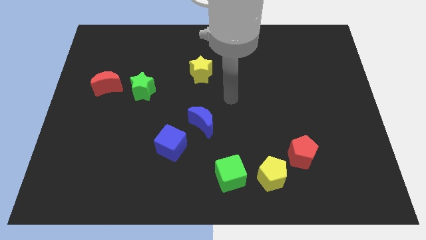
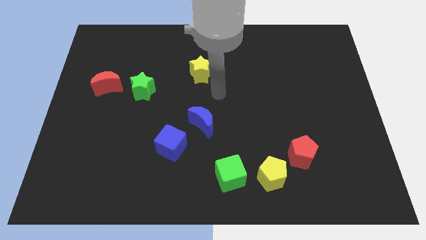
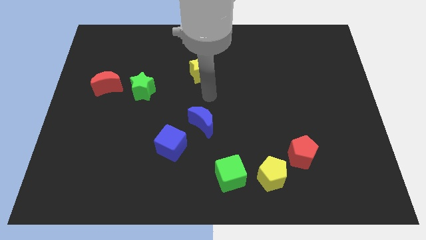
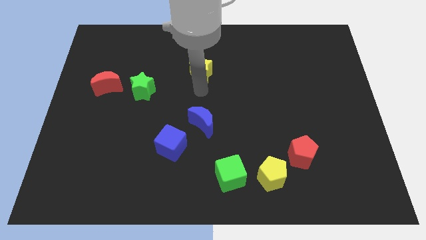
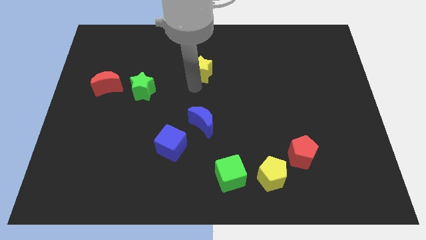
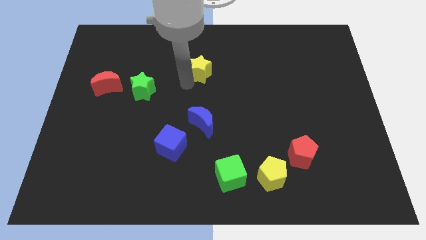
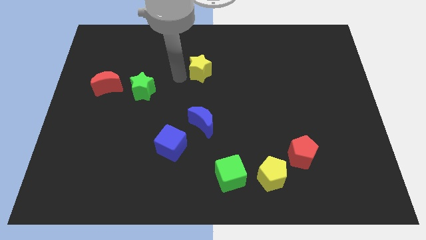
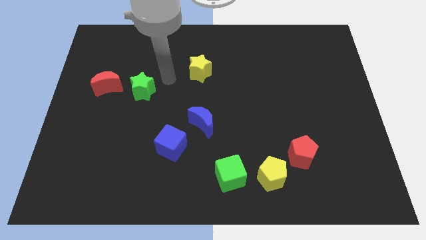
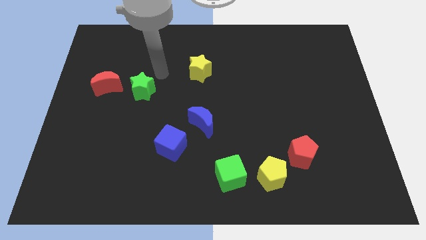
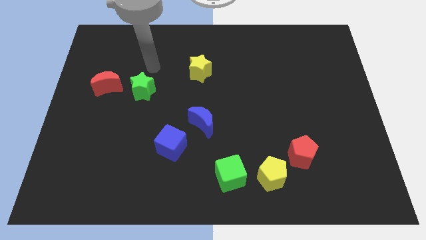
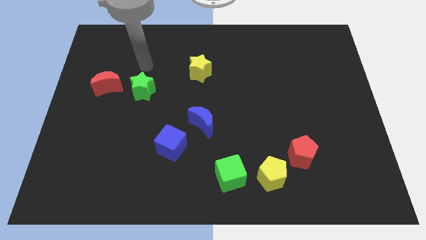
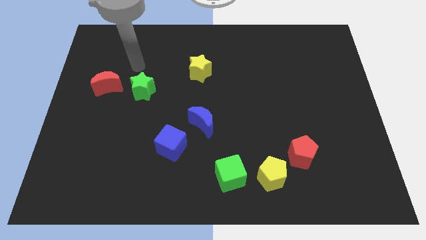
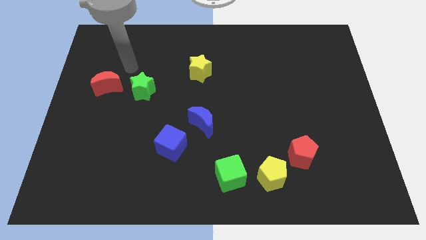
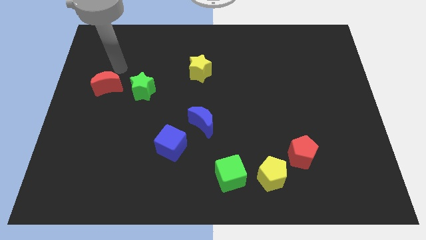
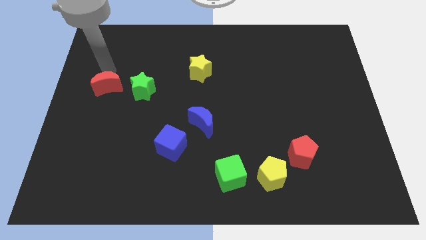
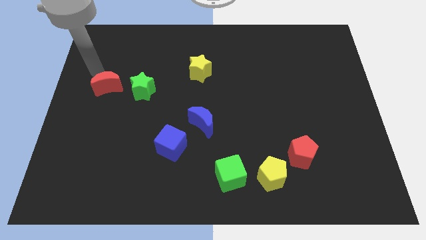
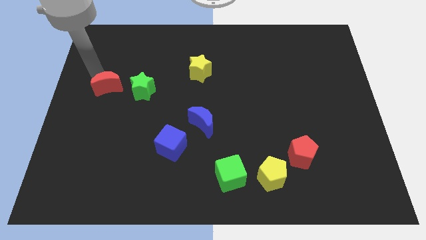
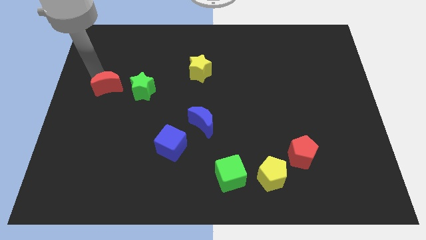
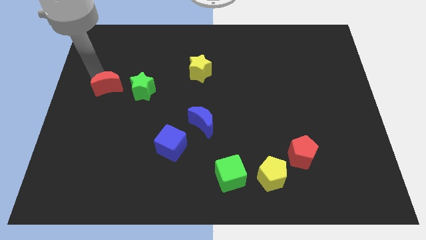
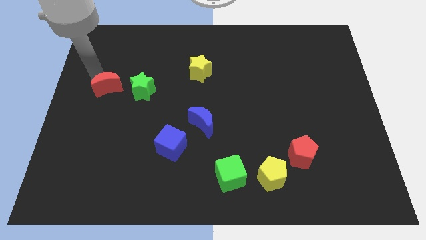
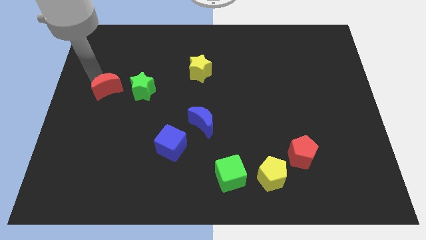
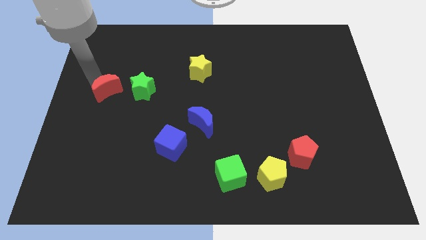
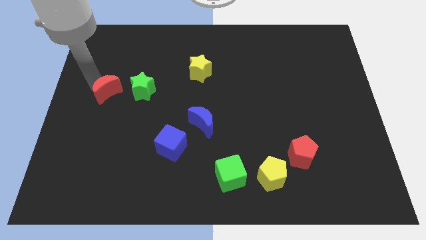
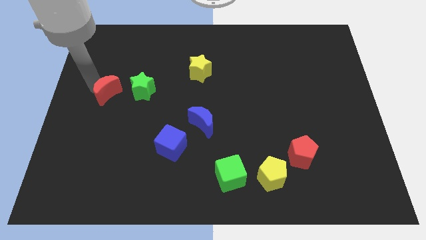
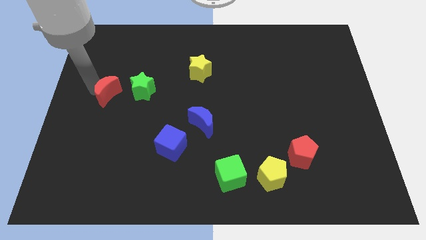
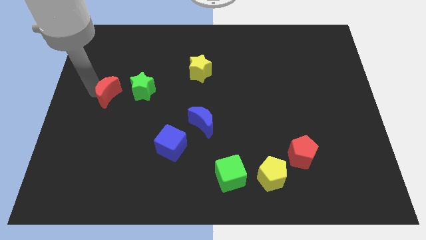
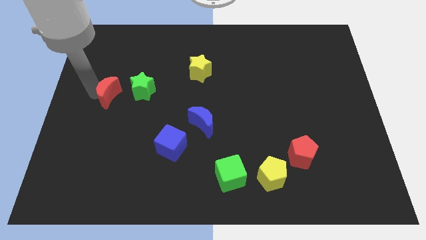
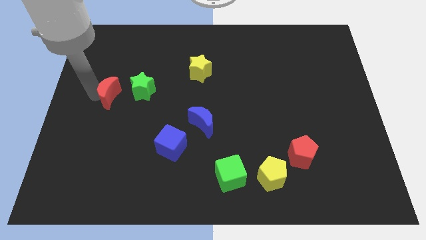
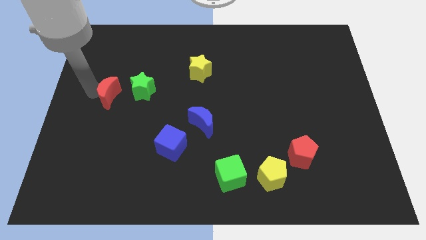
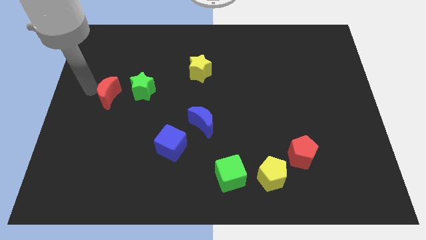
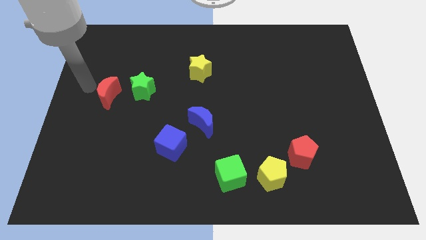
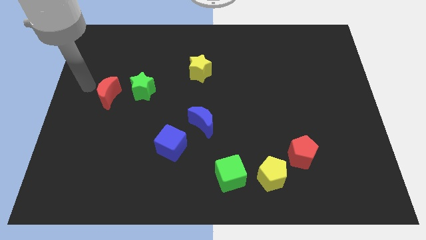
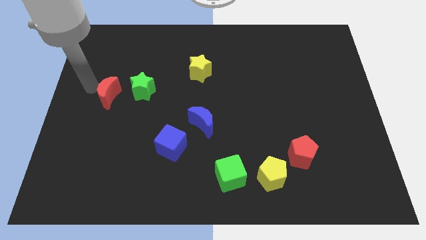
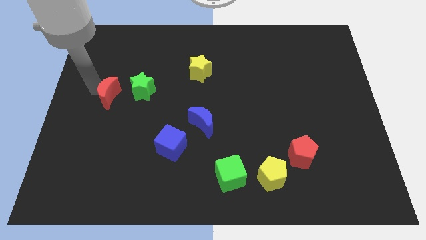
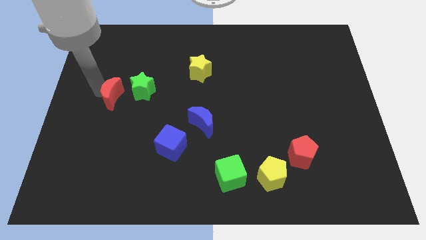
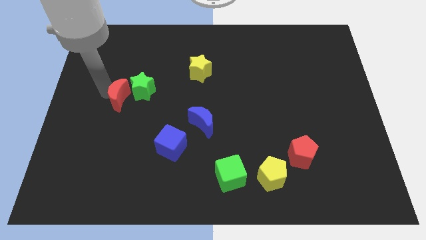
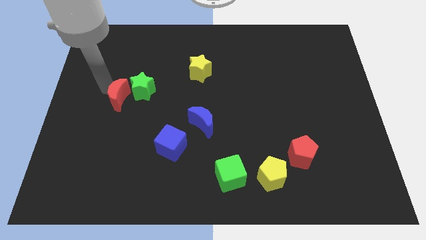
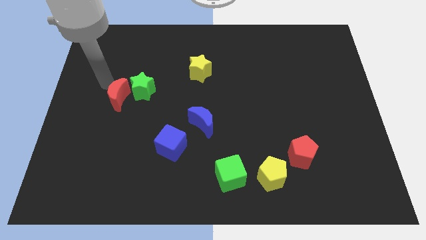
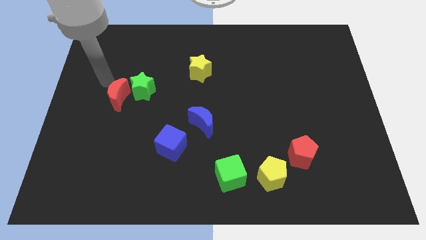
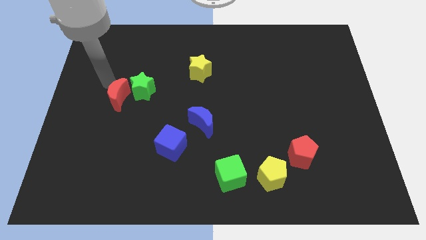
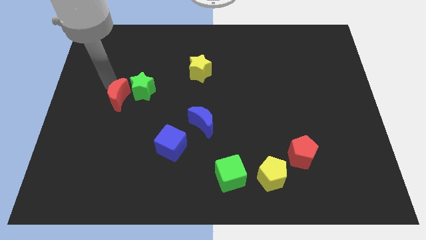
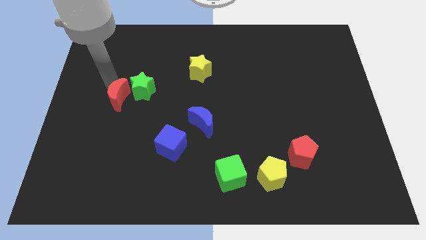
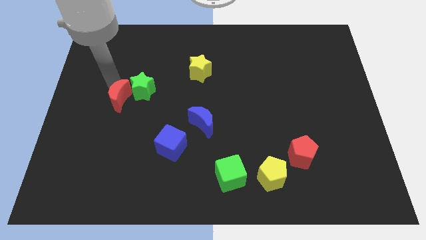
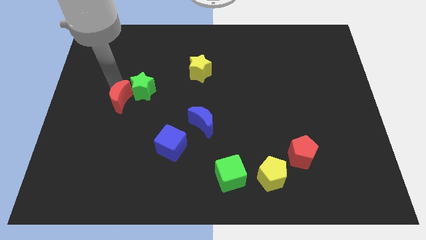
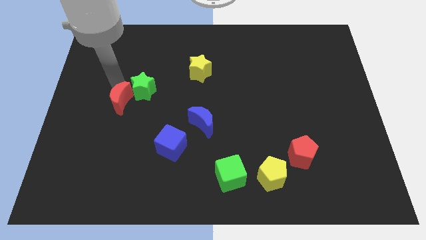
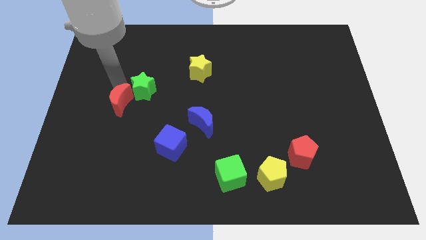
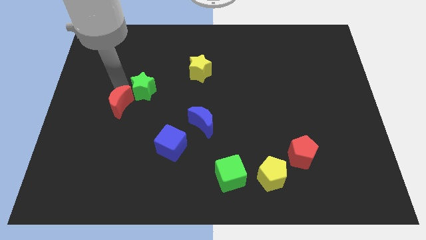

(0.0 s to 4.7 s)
push the red moon down and right somewhat

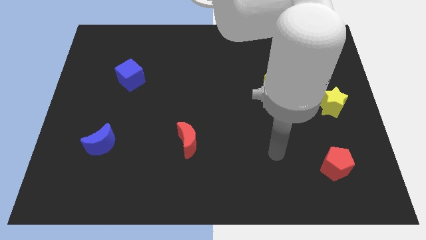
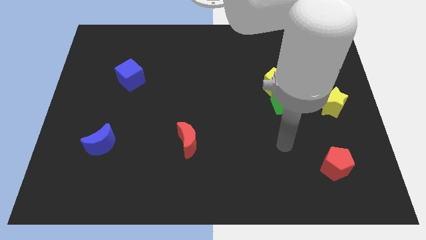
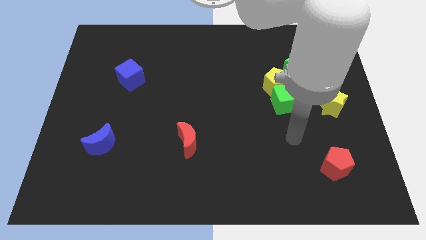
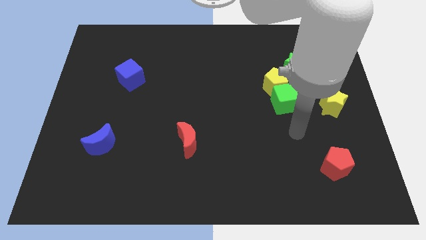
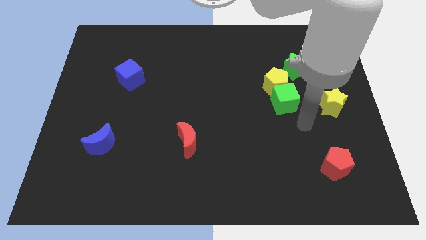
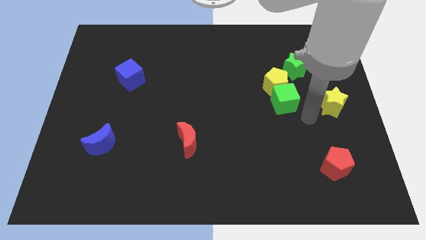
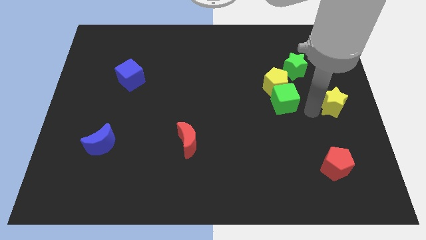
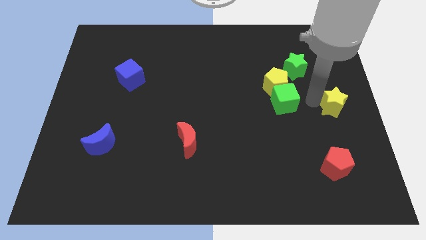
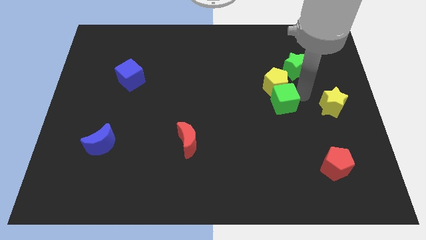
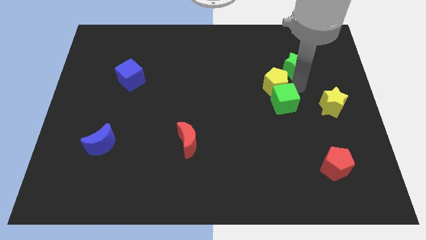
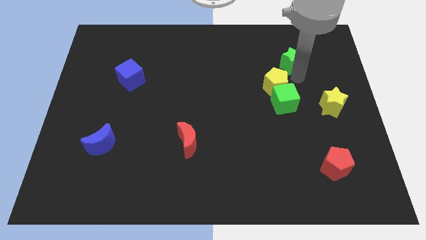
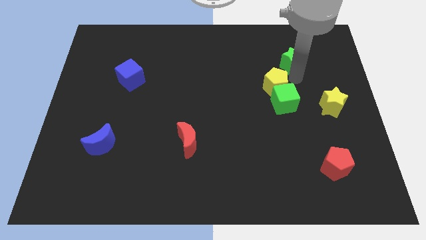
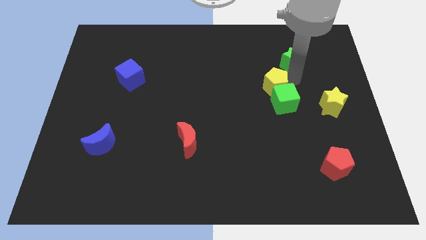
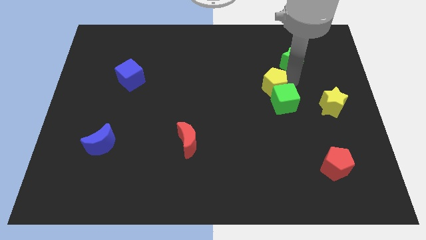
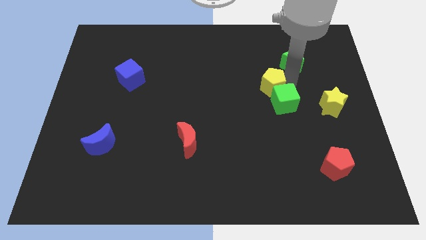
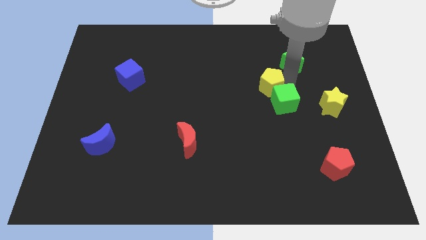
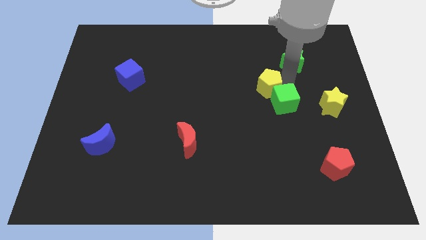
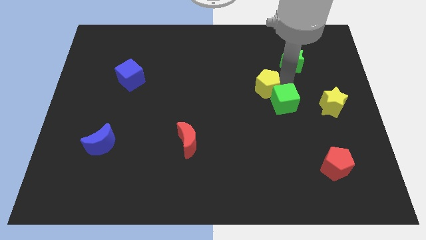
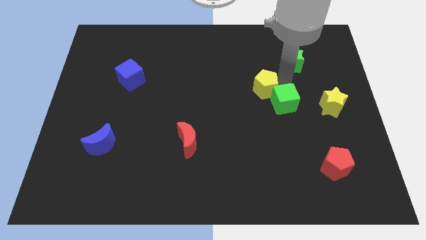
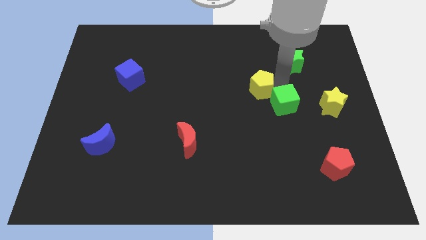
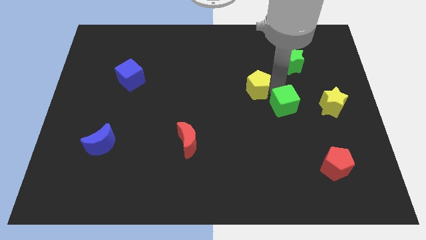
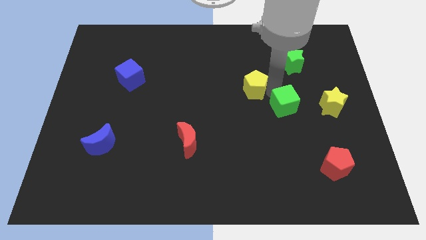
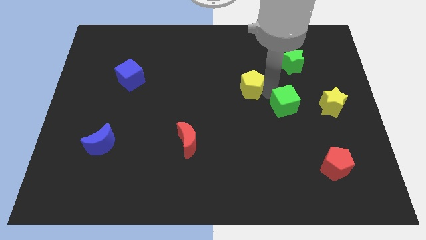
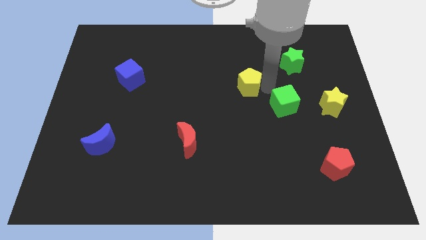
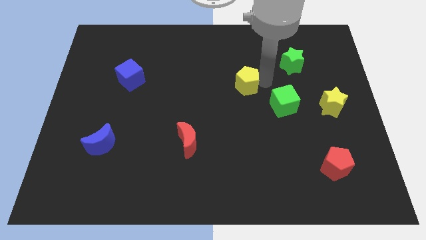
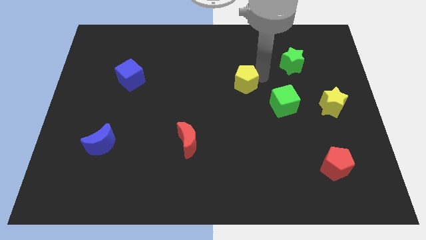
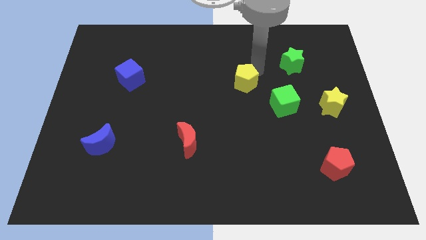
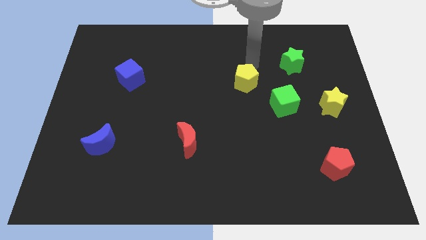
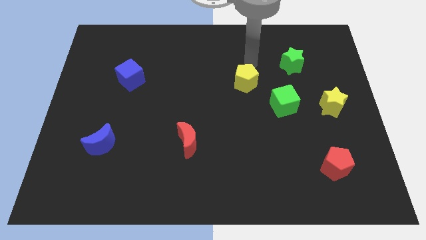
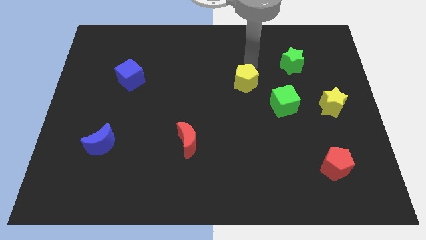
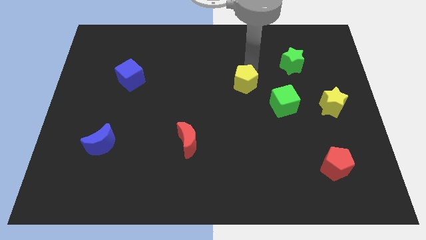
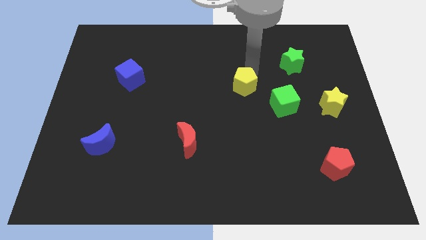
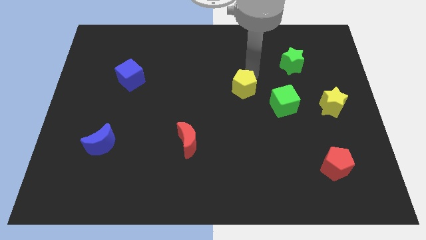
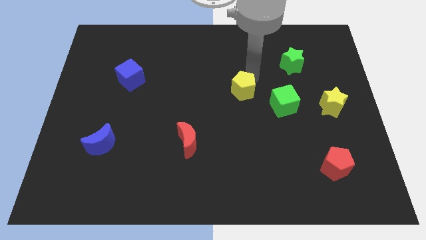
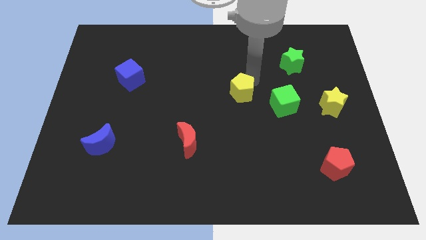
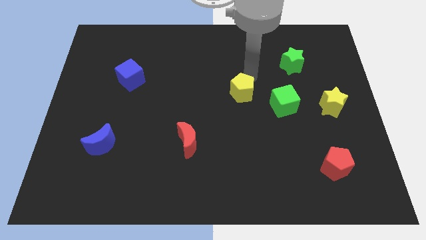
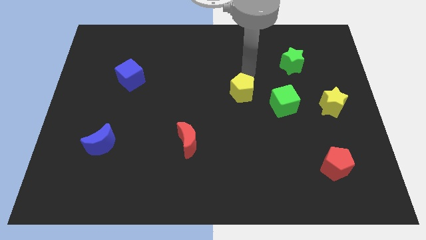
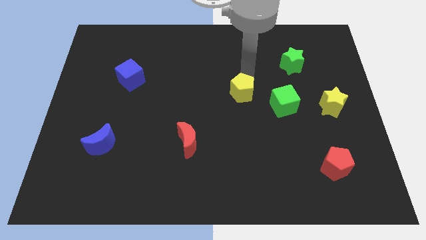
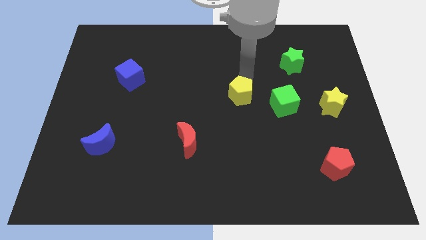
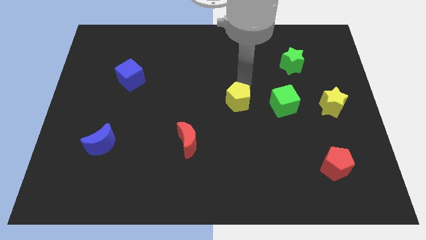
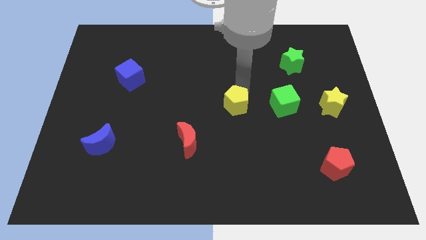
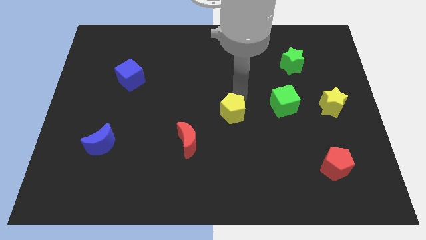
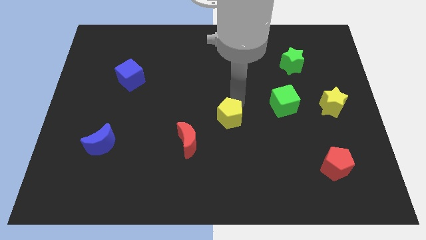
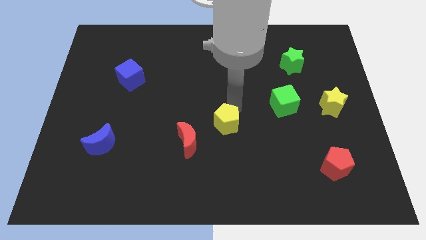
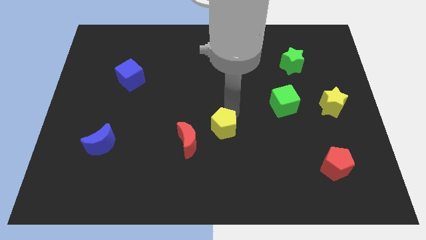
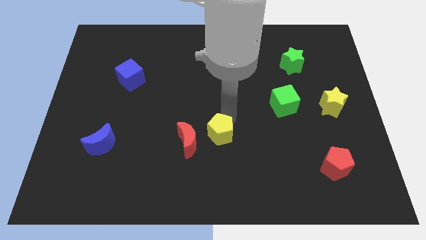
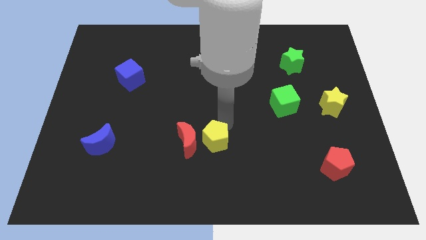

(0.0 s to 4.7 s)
push the yellow pentagon down and to the left
